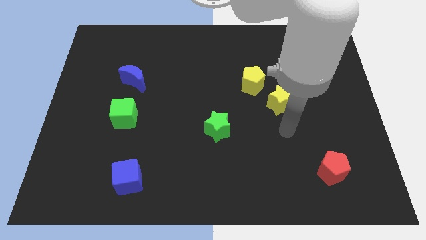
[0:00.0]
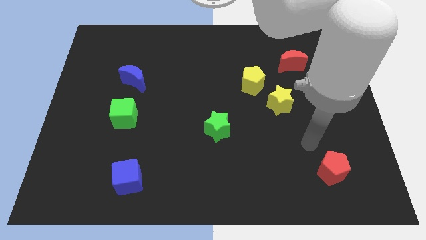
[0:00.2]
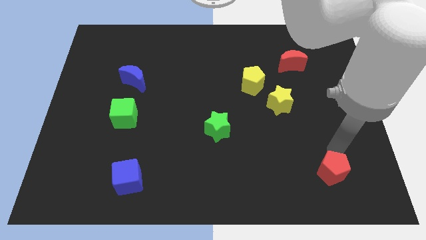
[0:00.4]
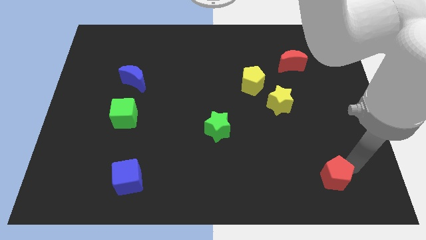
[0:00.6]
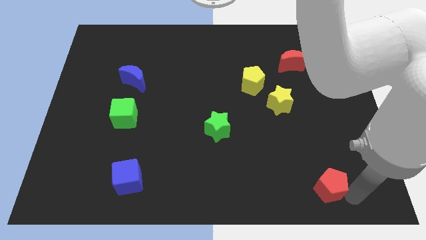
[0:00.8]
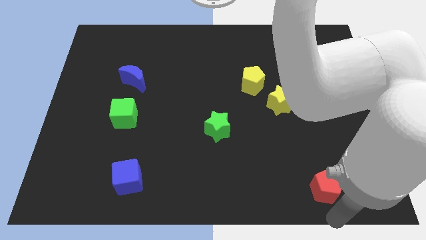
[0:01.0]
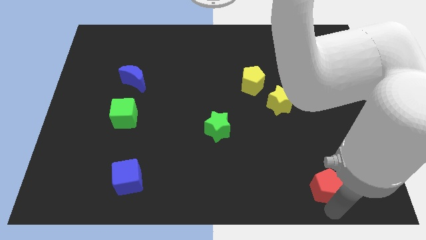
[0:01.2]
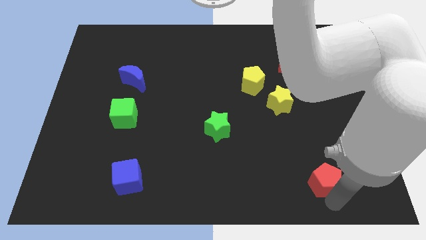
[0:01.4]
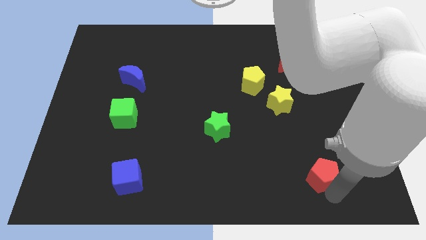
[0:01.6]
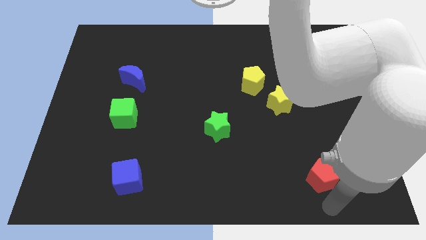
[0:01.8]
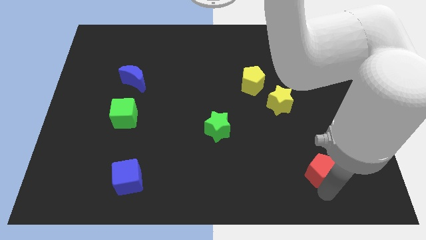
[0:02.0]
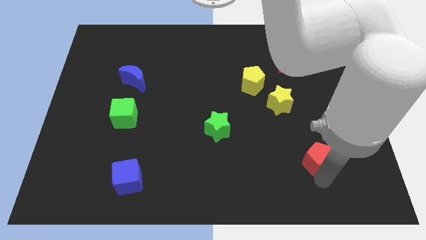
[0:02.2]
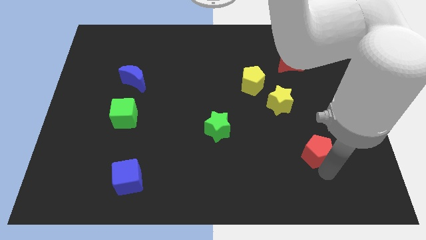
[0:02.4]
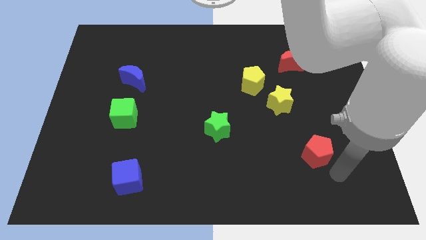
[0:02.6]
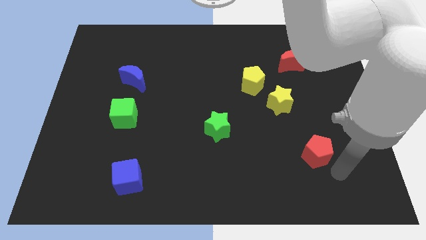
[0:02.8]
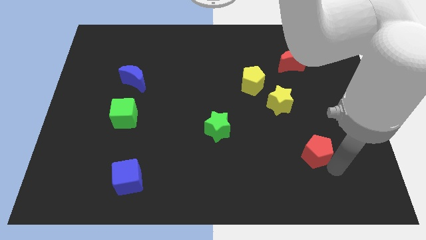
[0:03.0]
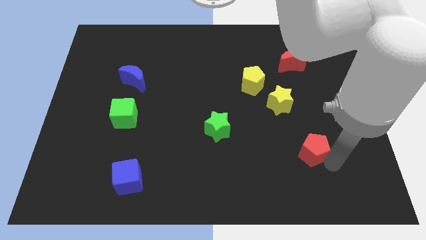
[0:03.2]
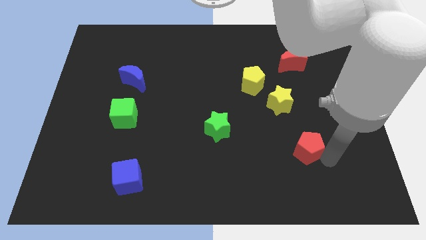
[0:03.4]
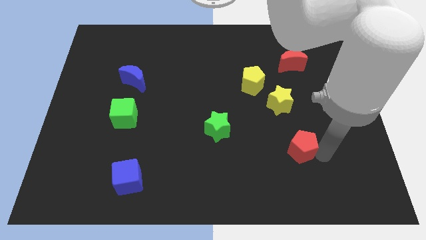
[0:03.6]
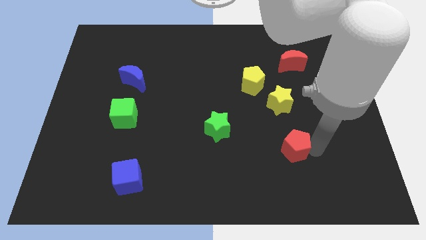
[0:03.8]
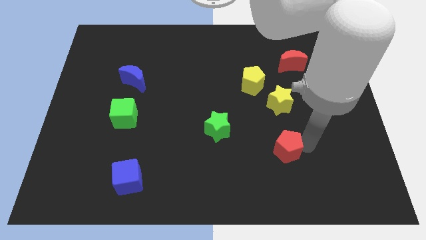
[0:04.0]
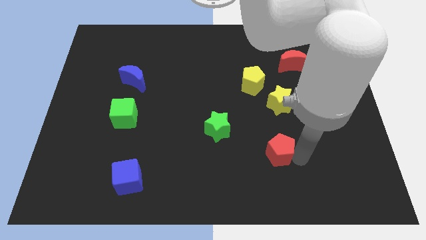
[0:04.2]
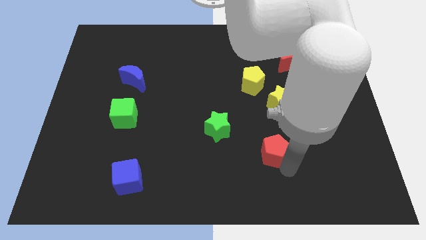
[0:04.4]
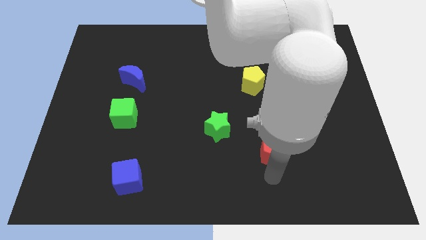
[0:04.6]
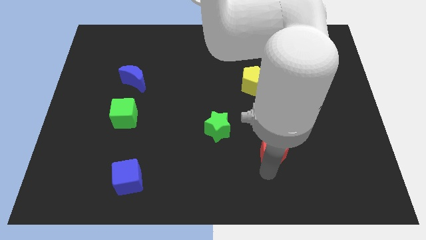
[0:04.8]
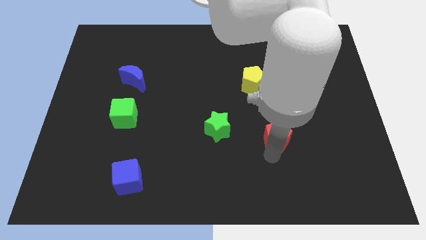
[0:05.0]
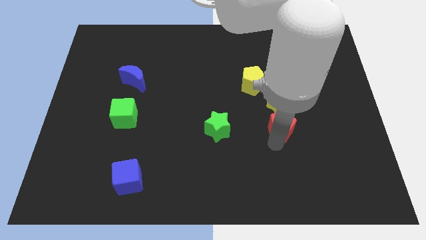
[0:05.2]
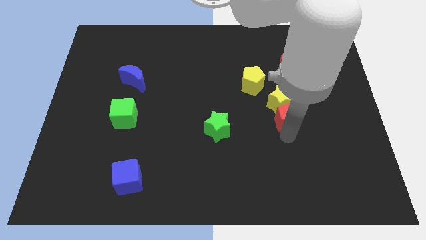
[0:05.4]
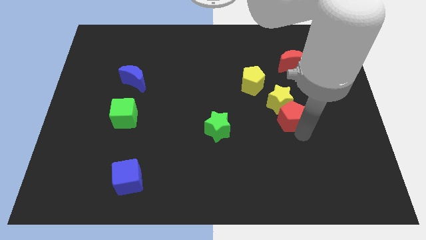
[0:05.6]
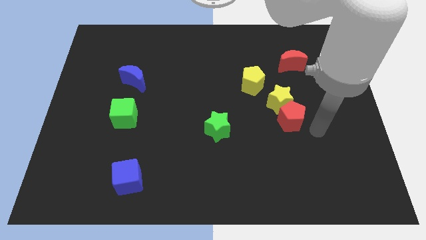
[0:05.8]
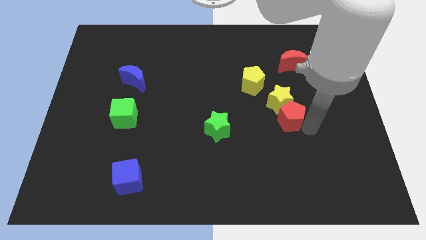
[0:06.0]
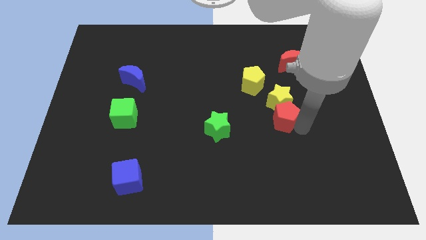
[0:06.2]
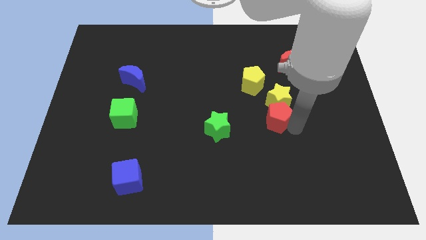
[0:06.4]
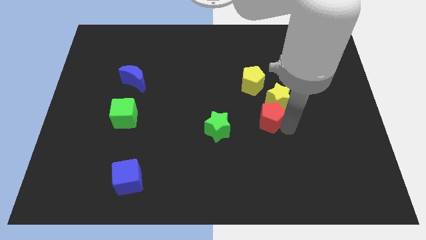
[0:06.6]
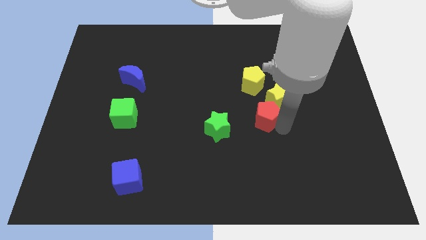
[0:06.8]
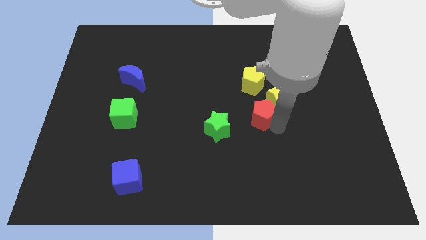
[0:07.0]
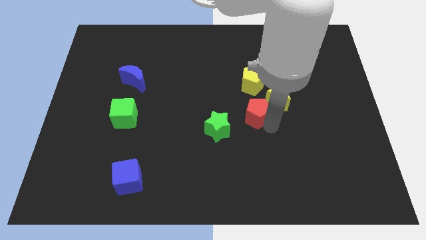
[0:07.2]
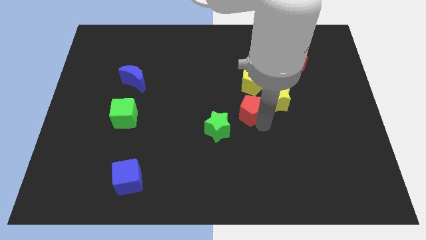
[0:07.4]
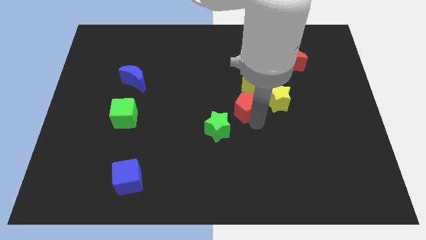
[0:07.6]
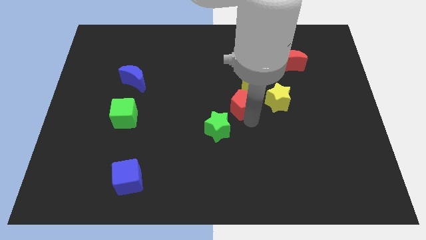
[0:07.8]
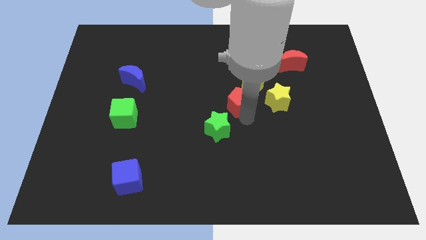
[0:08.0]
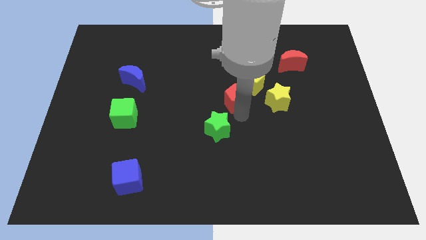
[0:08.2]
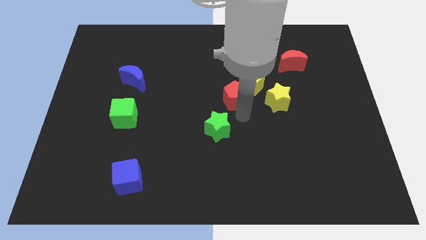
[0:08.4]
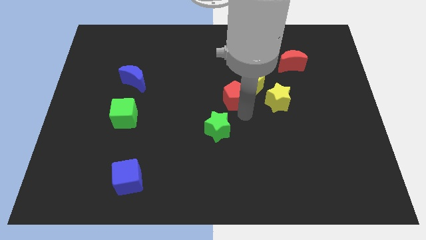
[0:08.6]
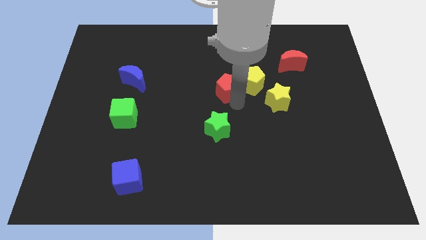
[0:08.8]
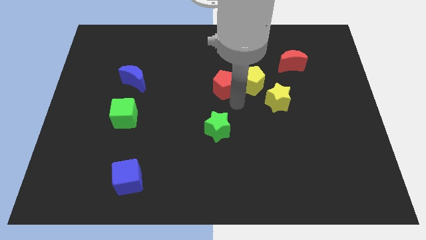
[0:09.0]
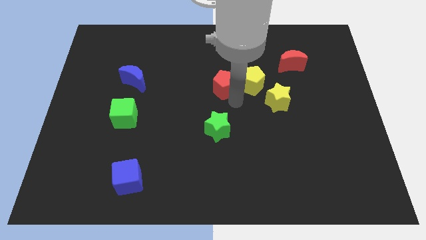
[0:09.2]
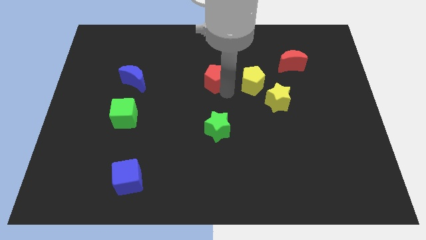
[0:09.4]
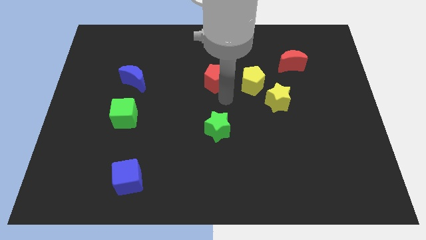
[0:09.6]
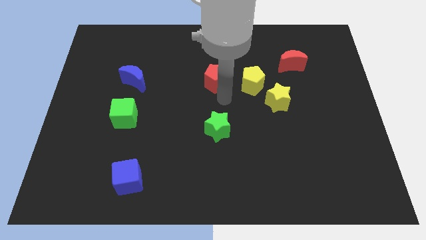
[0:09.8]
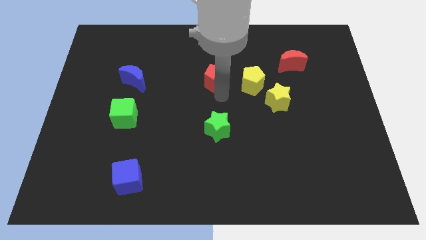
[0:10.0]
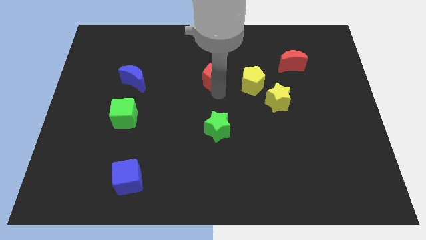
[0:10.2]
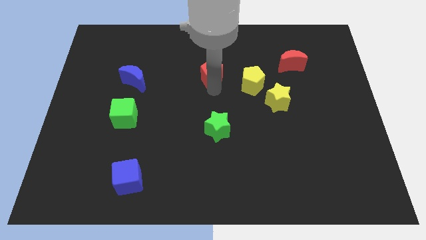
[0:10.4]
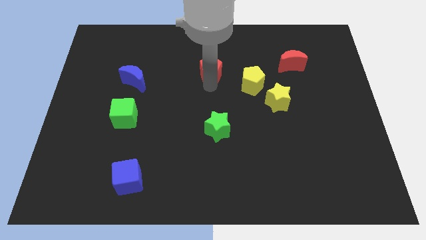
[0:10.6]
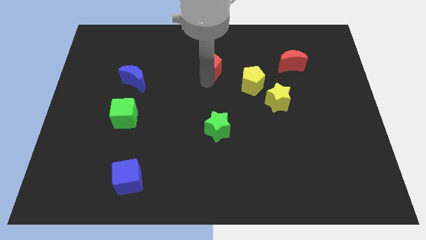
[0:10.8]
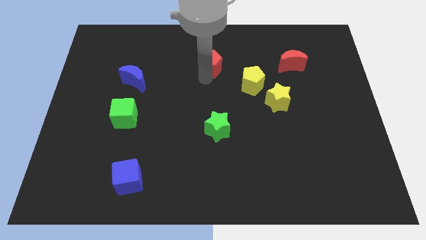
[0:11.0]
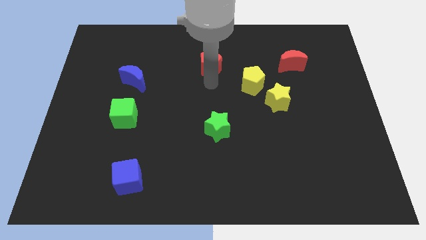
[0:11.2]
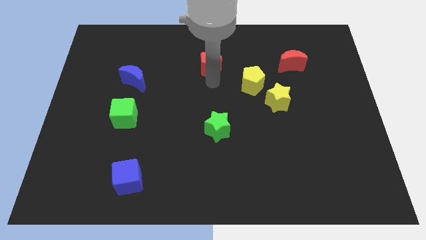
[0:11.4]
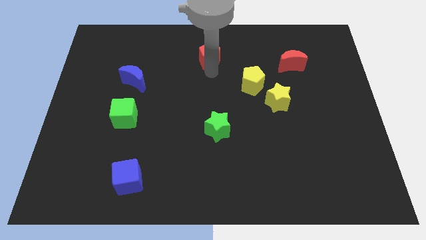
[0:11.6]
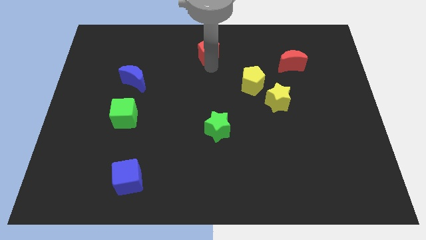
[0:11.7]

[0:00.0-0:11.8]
push the red pentagon to the towards your base
